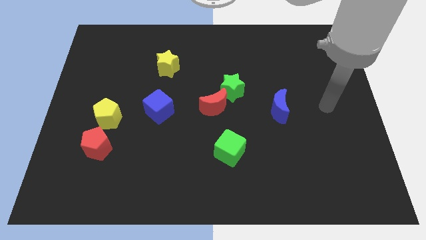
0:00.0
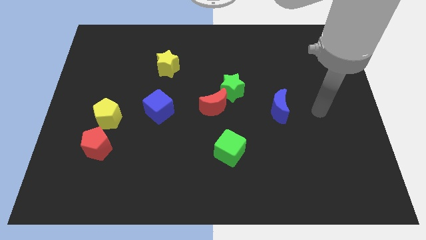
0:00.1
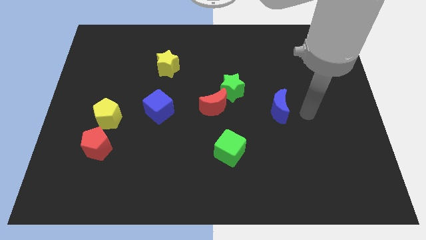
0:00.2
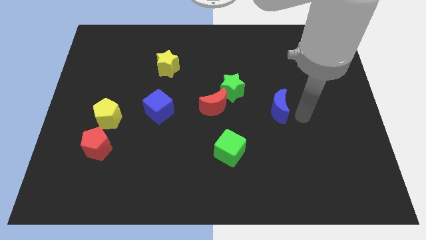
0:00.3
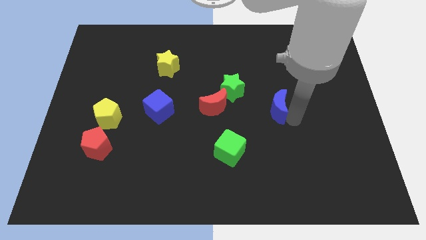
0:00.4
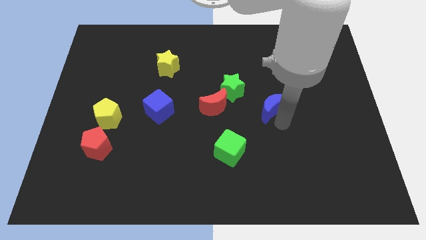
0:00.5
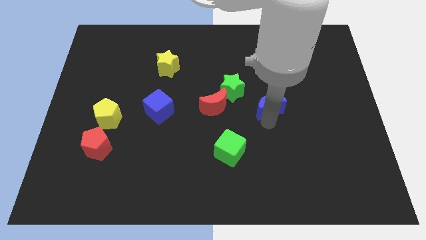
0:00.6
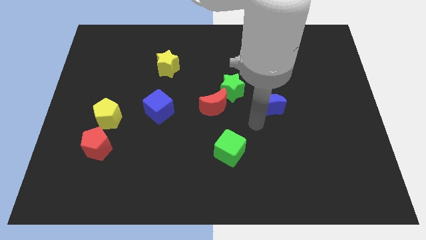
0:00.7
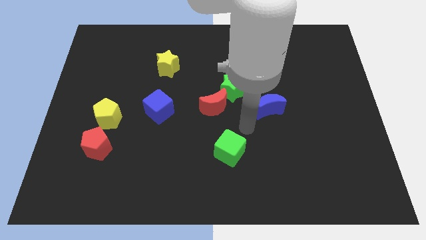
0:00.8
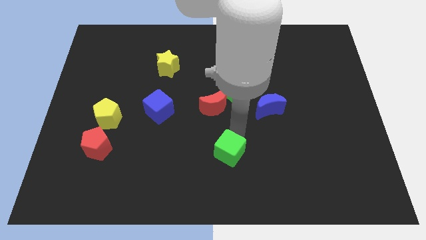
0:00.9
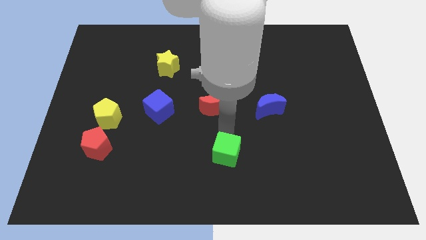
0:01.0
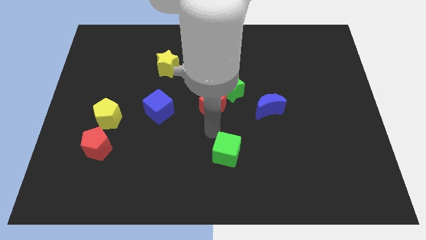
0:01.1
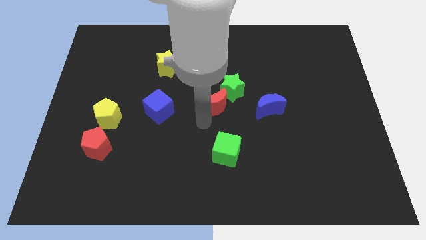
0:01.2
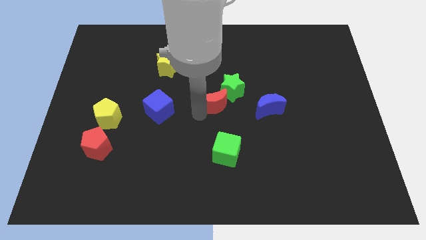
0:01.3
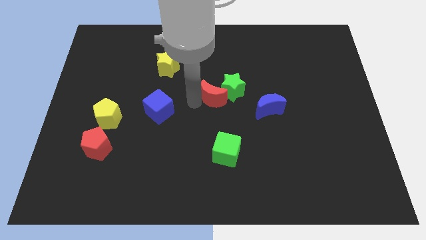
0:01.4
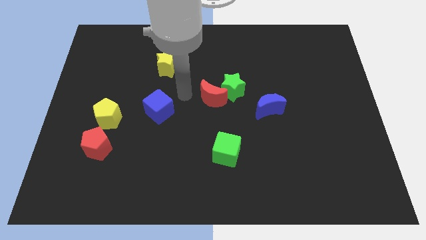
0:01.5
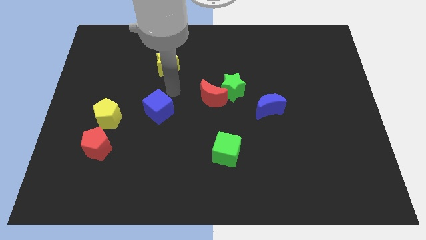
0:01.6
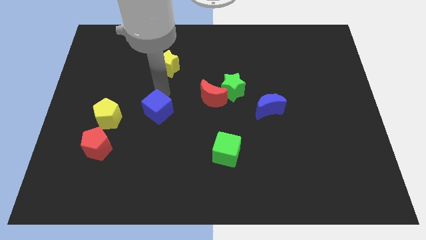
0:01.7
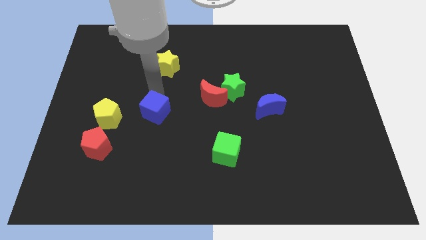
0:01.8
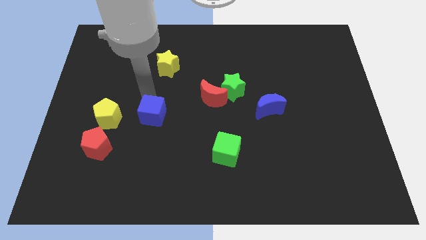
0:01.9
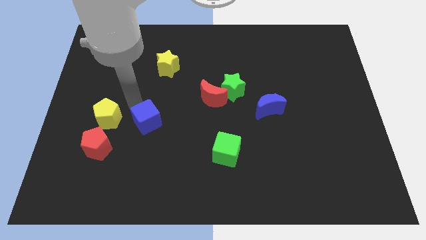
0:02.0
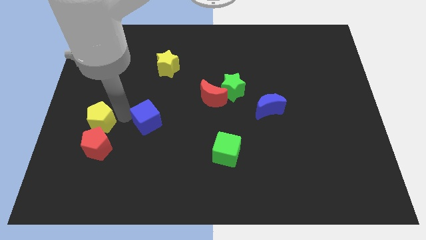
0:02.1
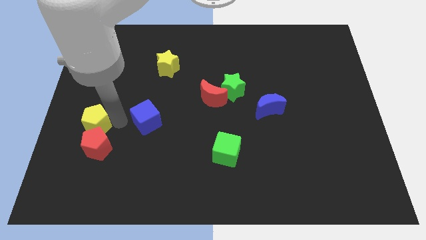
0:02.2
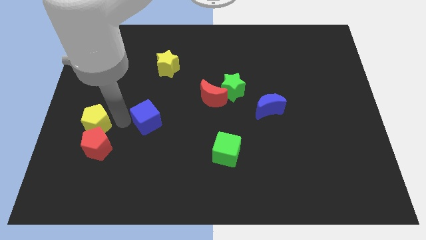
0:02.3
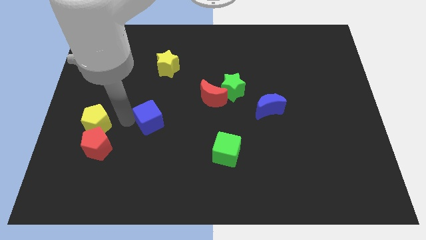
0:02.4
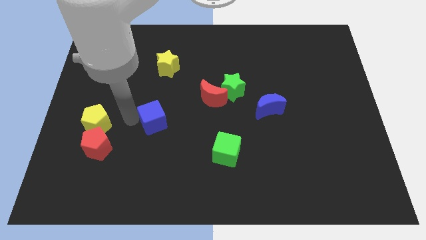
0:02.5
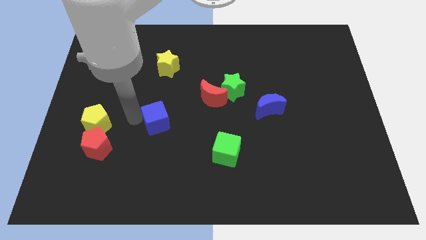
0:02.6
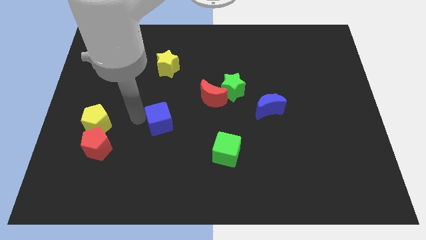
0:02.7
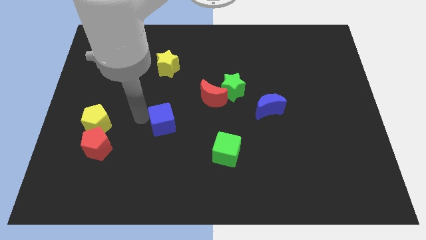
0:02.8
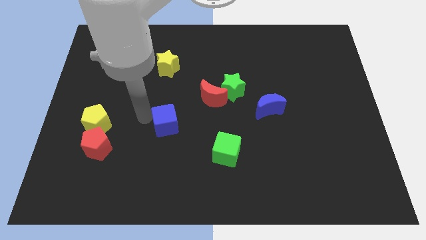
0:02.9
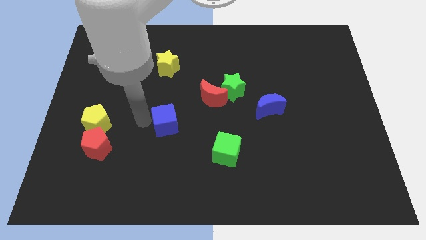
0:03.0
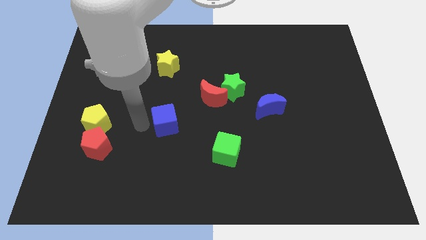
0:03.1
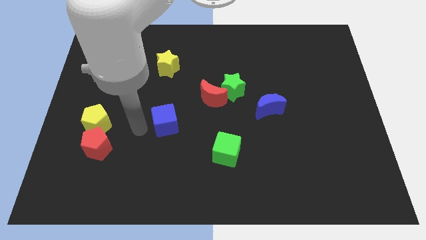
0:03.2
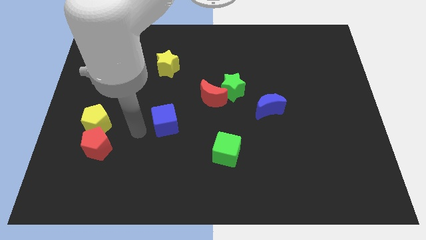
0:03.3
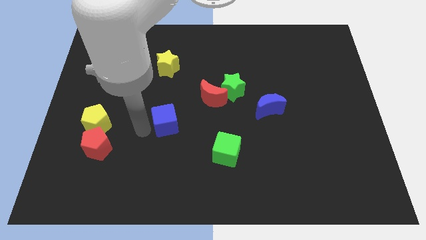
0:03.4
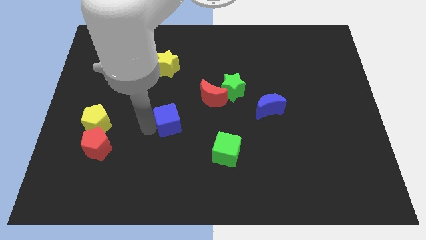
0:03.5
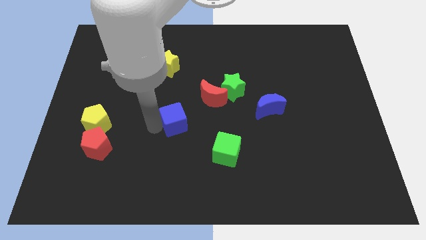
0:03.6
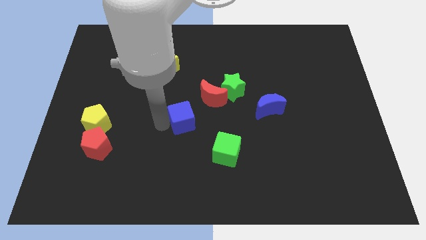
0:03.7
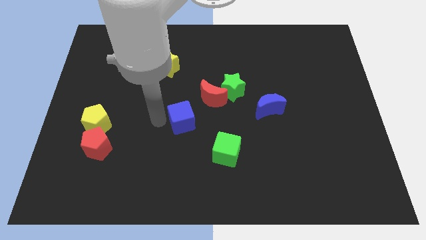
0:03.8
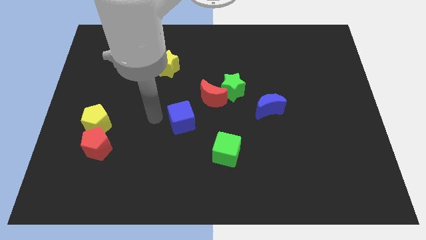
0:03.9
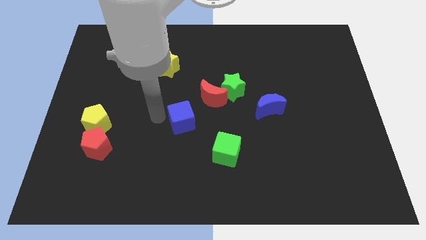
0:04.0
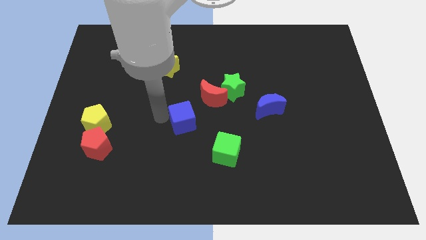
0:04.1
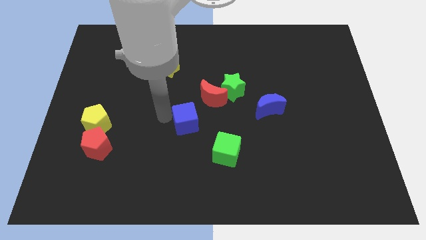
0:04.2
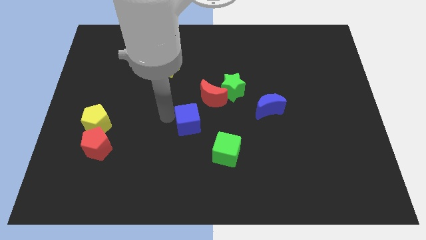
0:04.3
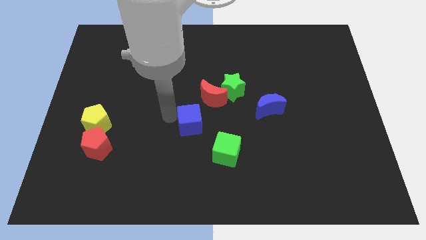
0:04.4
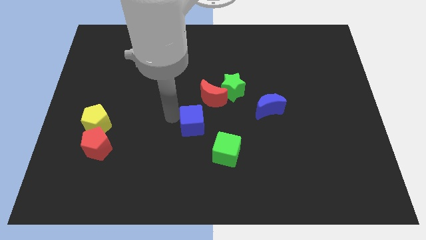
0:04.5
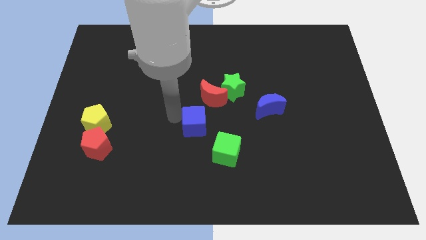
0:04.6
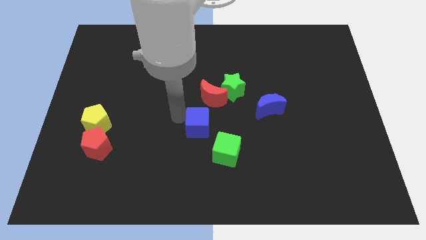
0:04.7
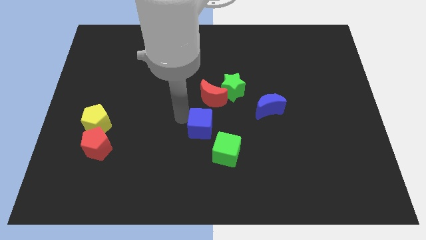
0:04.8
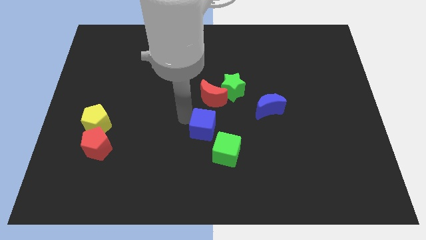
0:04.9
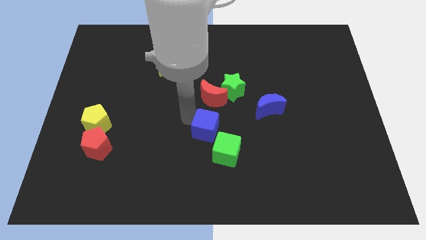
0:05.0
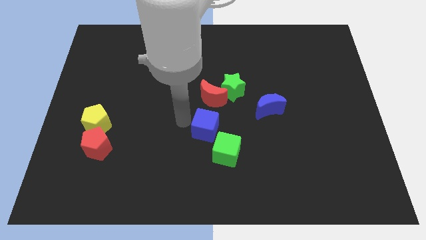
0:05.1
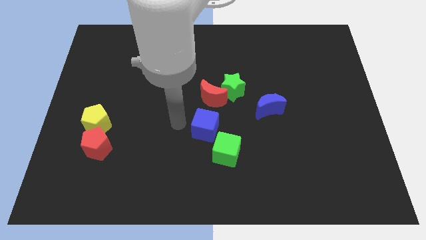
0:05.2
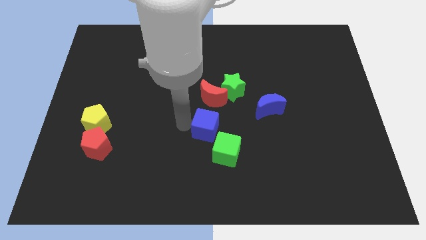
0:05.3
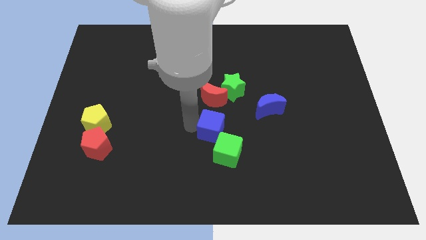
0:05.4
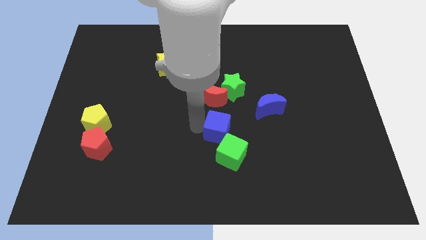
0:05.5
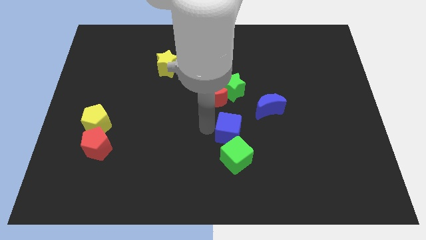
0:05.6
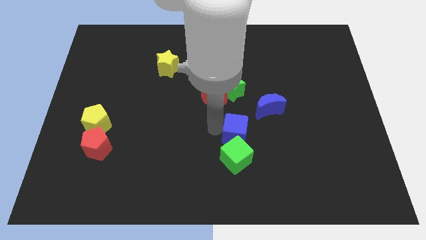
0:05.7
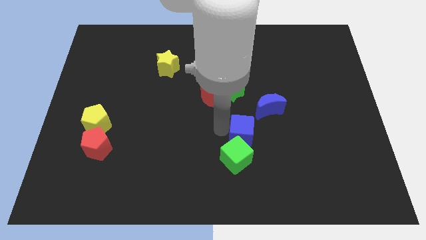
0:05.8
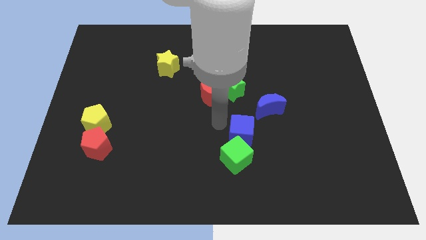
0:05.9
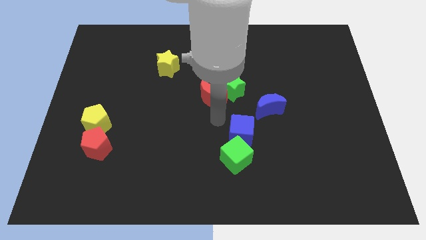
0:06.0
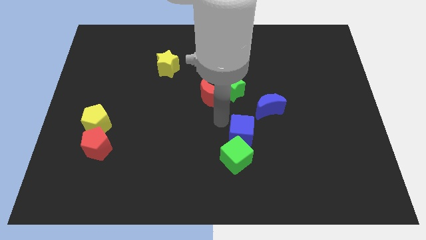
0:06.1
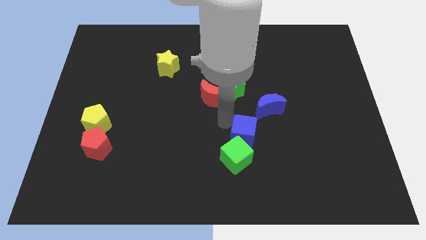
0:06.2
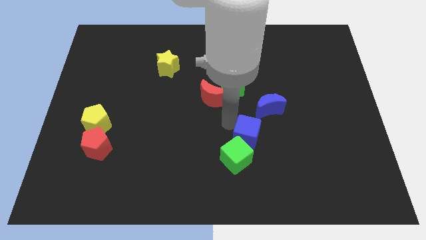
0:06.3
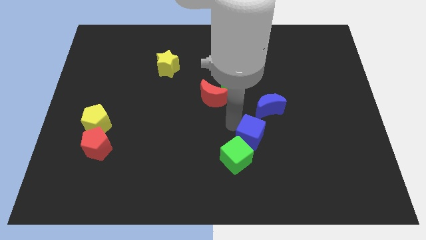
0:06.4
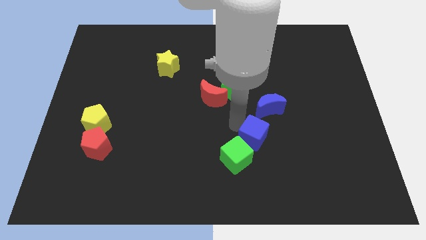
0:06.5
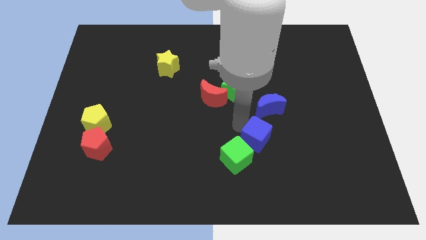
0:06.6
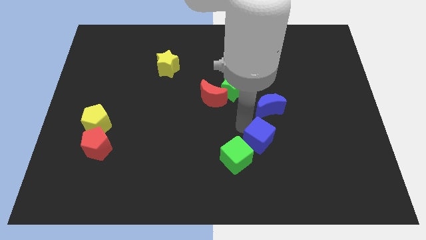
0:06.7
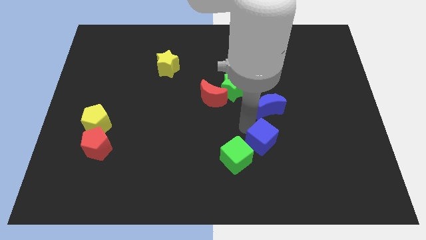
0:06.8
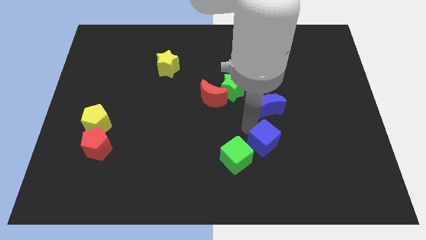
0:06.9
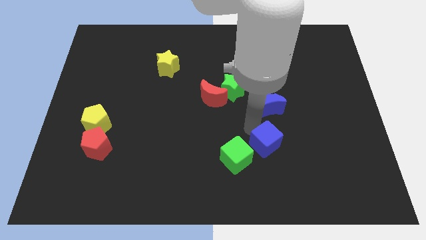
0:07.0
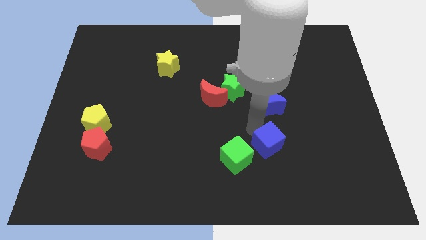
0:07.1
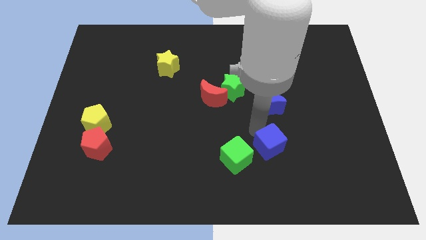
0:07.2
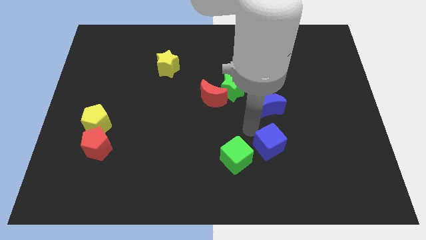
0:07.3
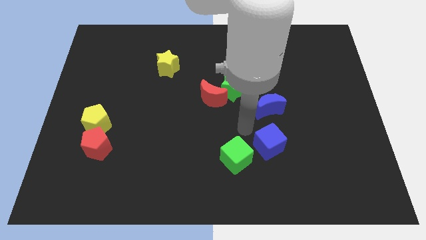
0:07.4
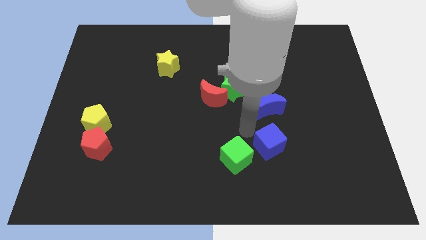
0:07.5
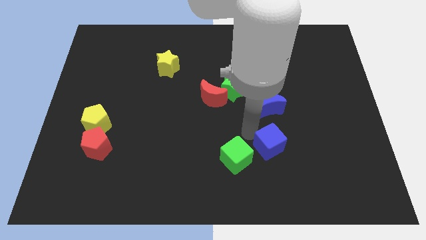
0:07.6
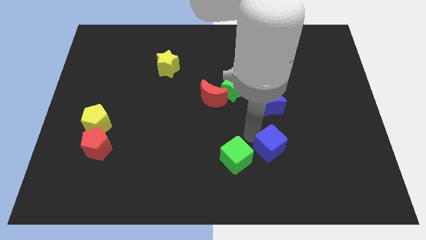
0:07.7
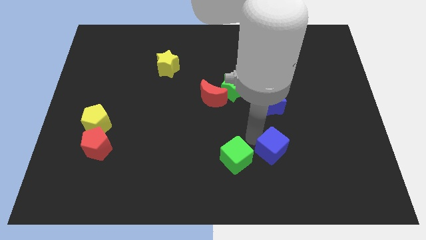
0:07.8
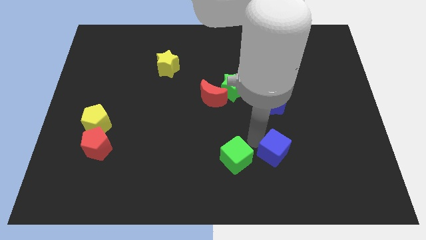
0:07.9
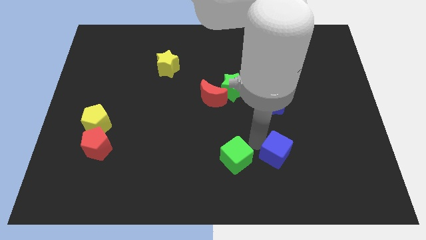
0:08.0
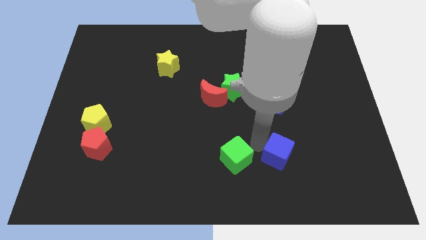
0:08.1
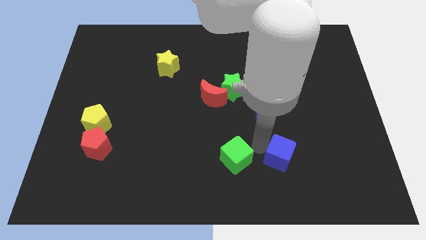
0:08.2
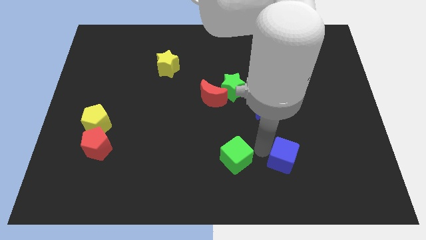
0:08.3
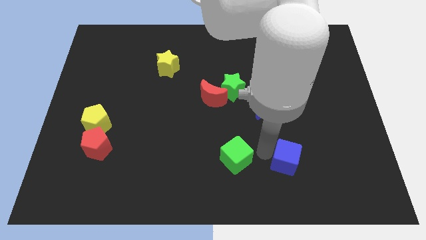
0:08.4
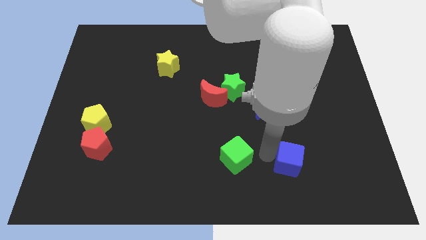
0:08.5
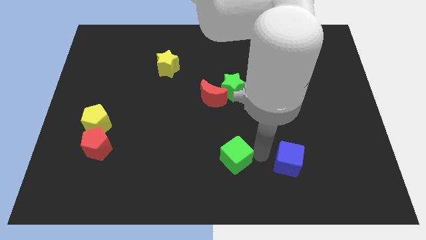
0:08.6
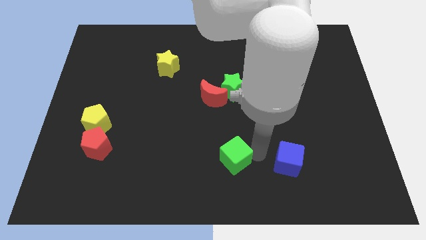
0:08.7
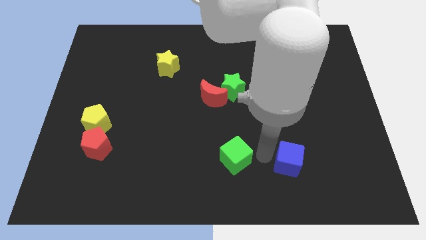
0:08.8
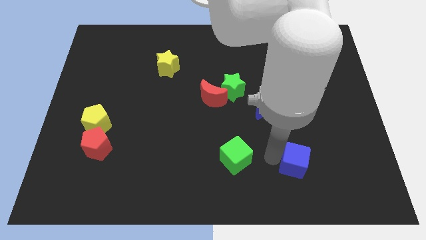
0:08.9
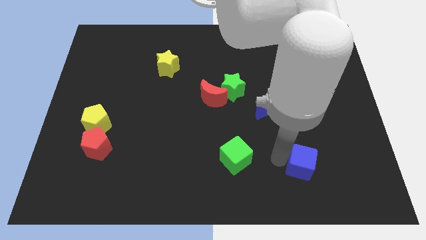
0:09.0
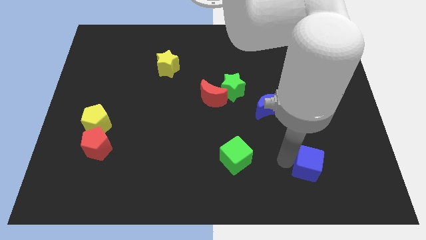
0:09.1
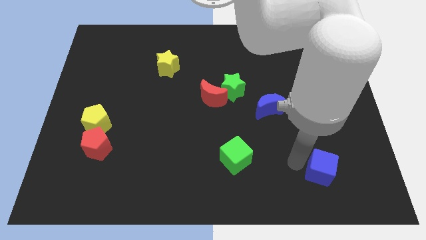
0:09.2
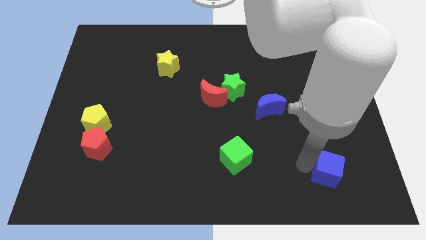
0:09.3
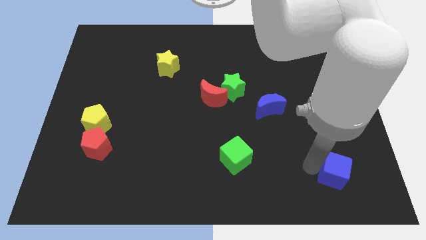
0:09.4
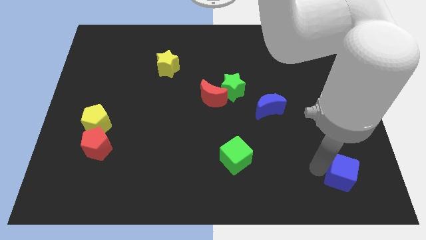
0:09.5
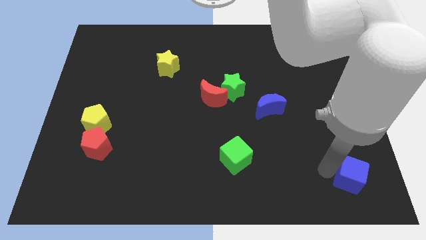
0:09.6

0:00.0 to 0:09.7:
put the blue cube to the lower right corner
